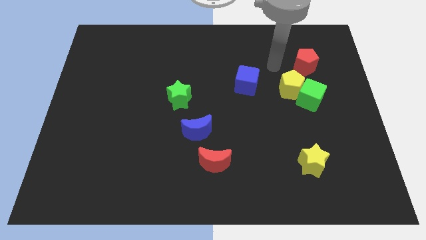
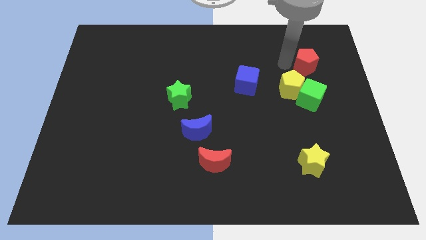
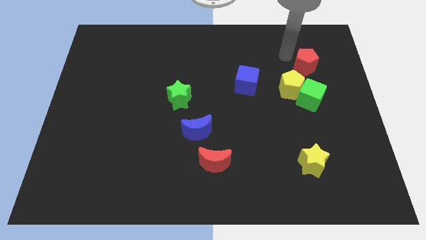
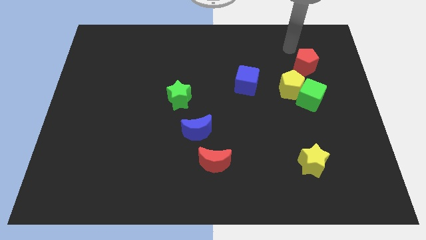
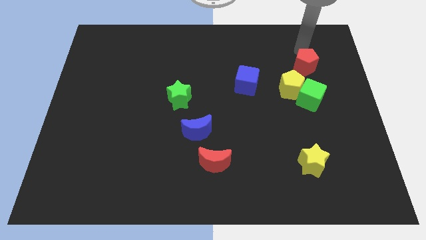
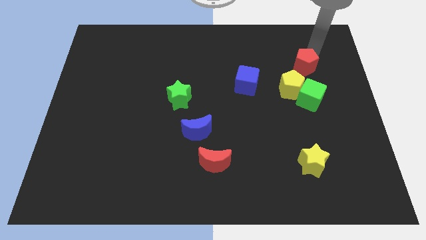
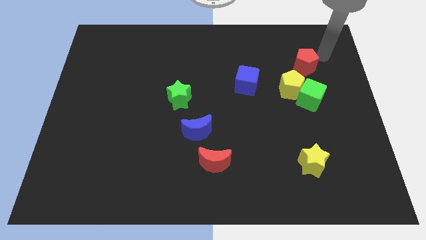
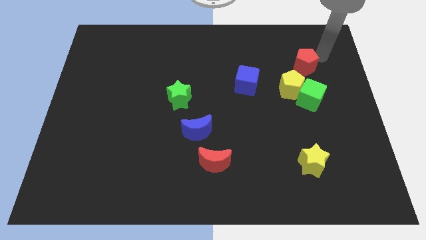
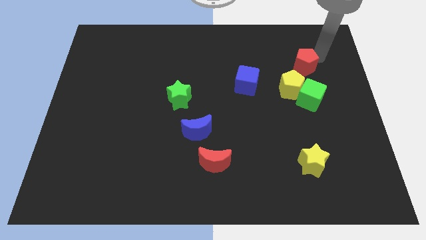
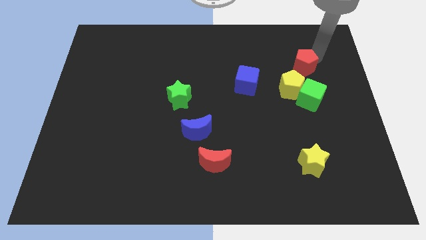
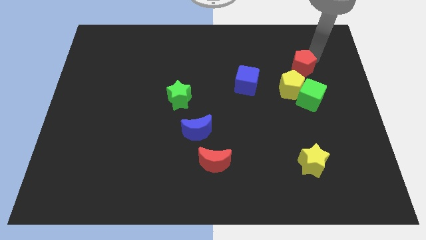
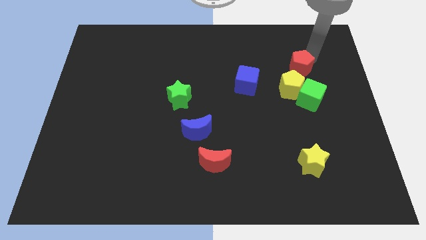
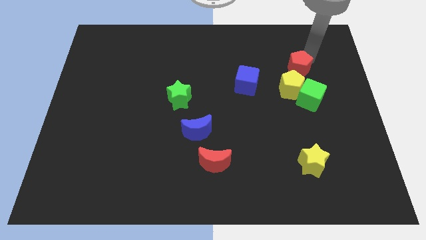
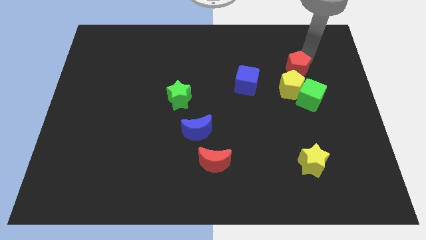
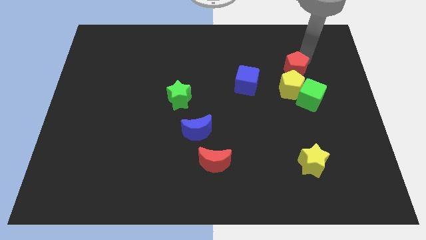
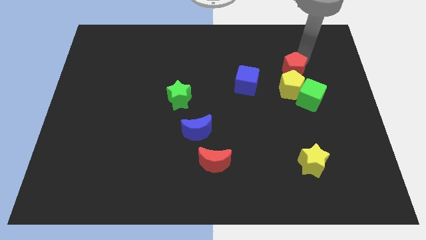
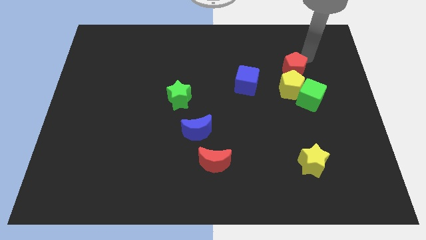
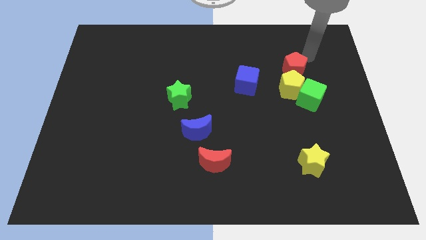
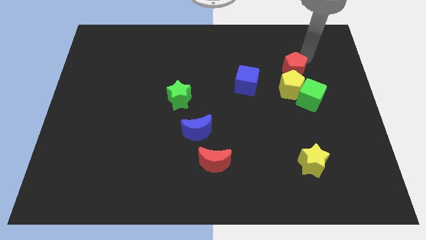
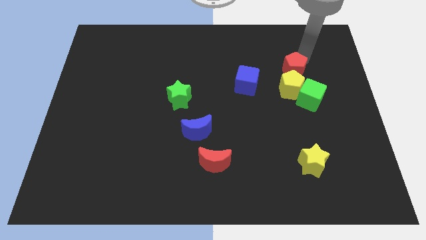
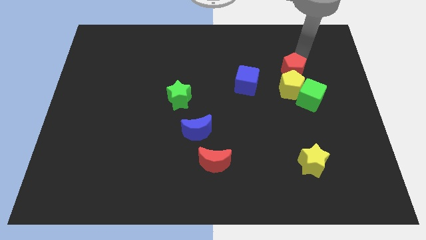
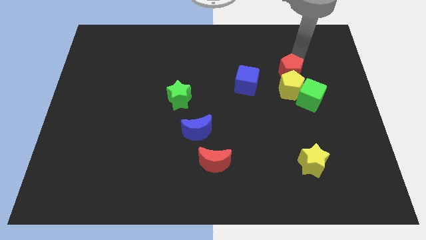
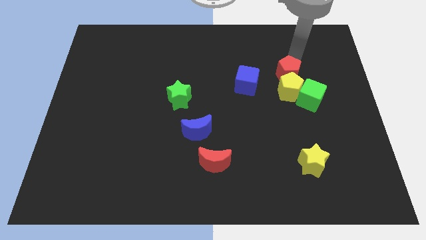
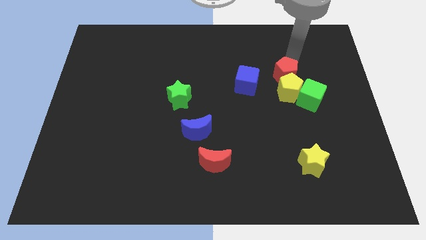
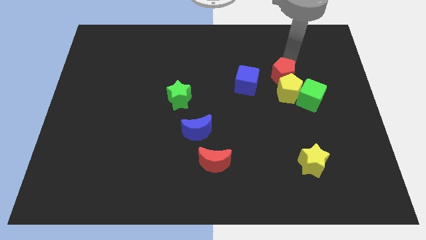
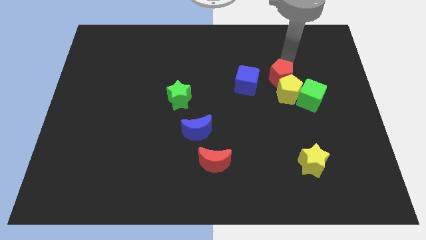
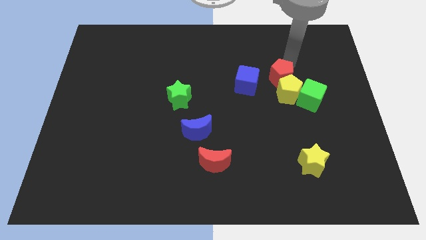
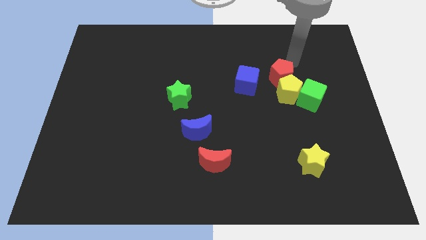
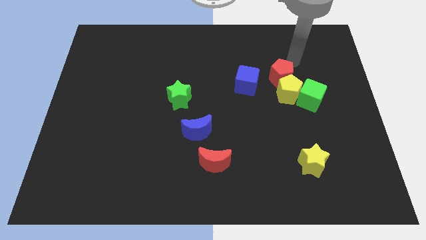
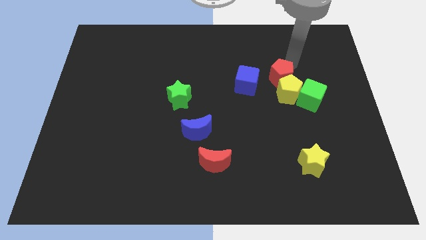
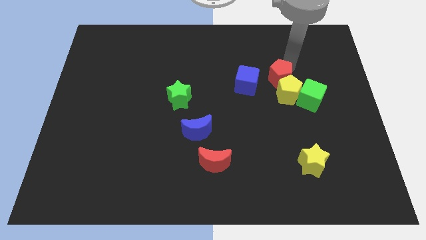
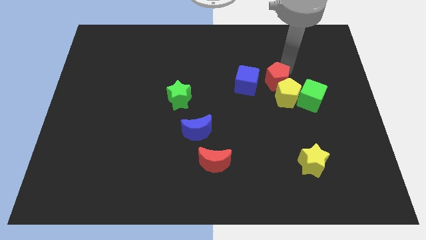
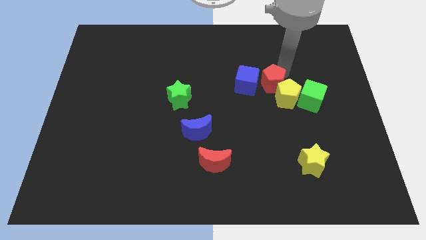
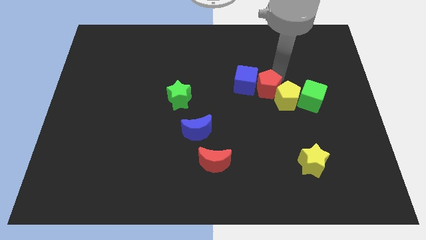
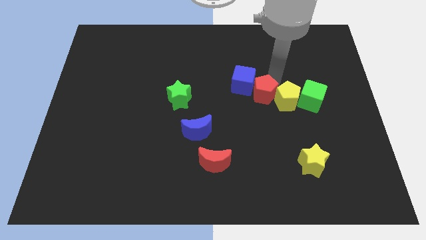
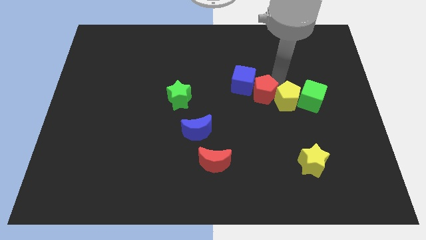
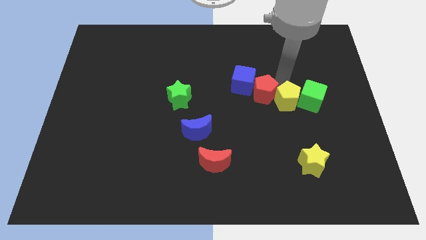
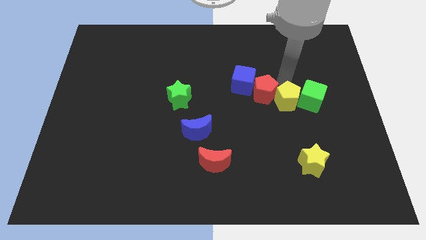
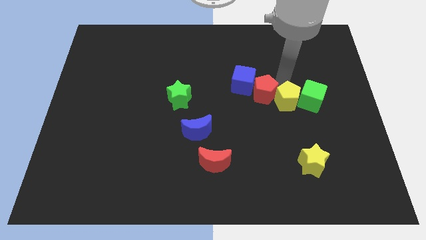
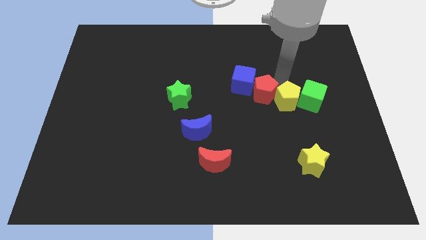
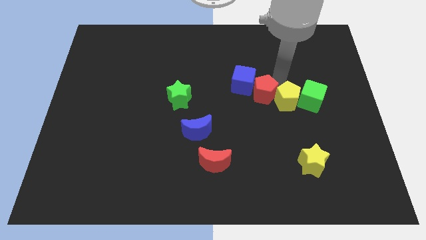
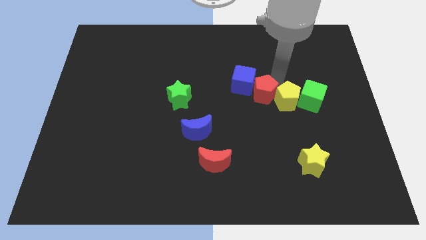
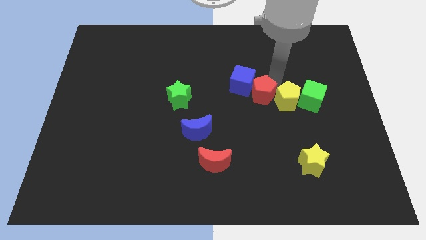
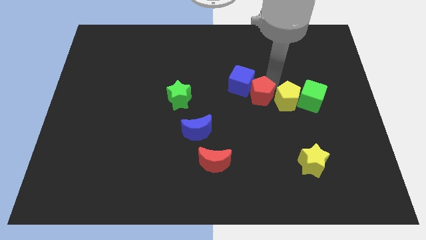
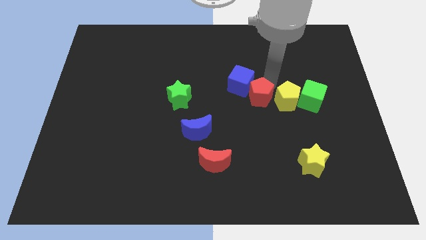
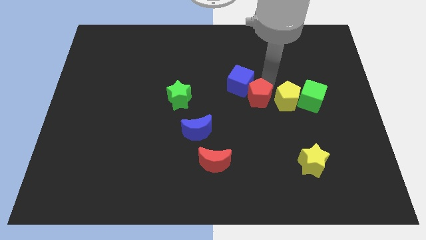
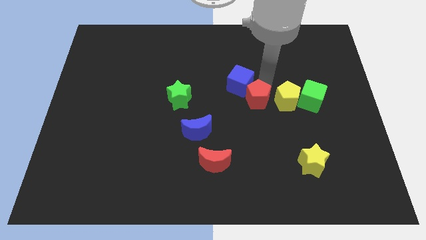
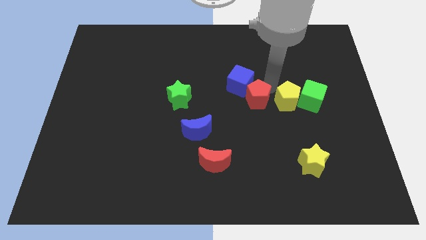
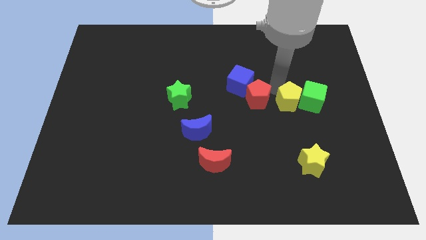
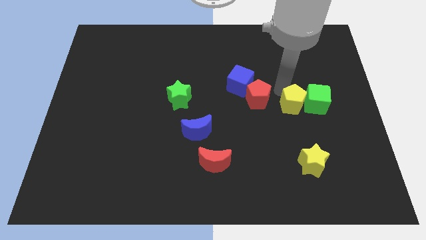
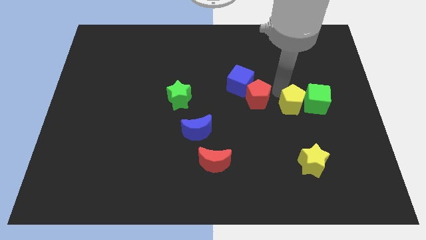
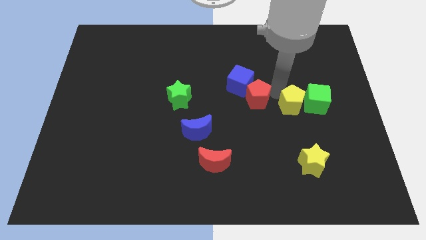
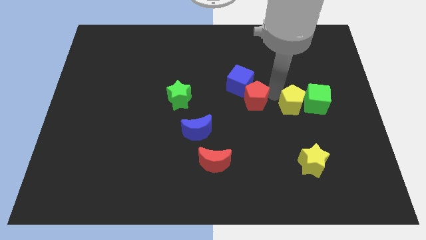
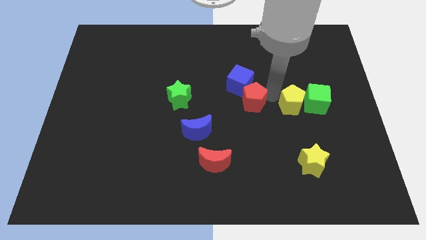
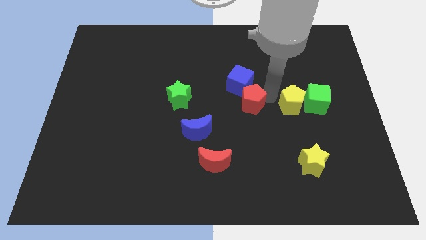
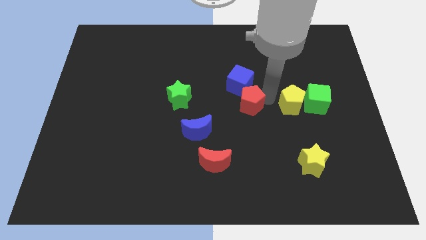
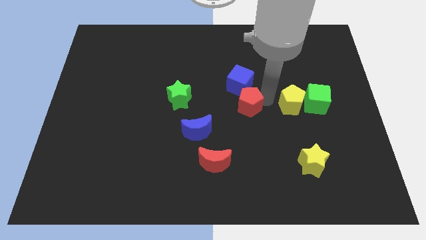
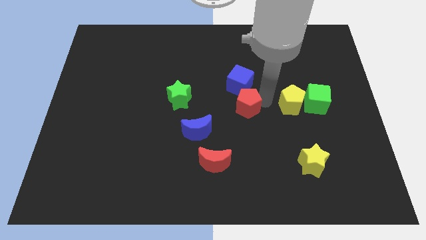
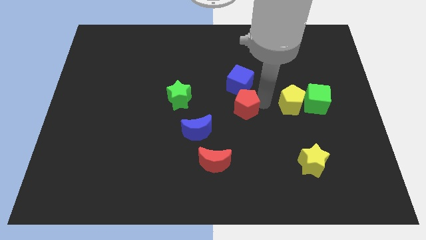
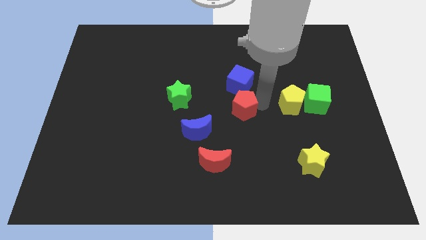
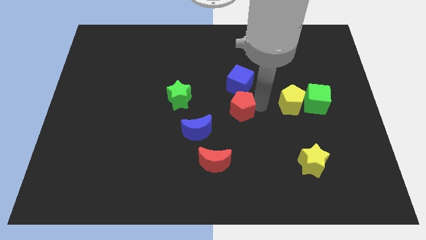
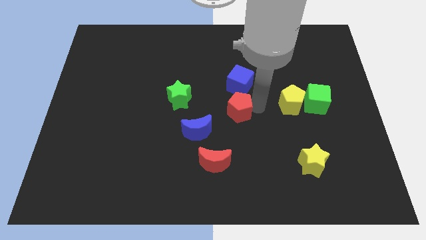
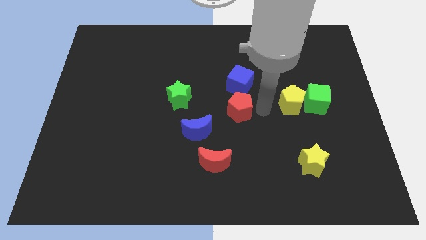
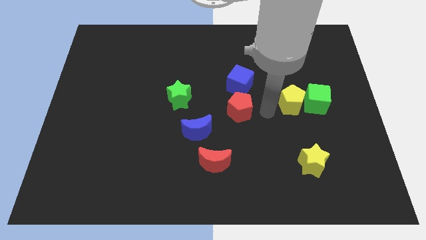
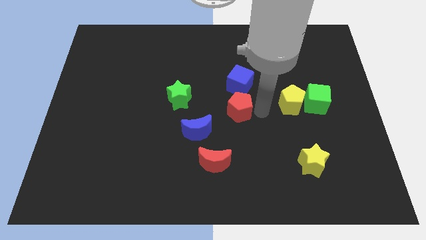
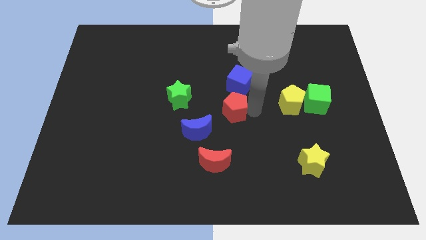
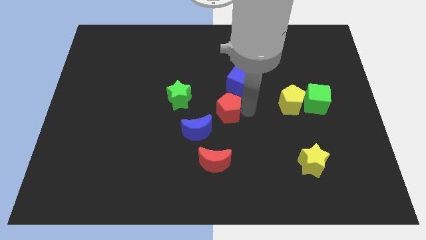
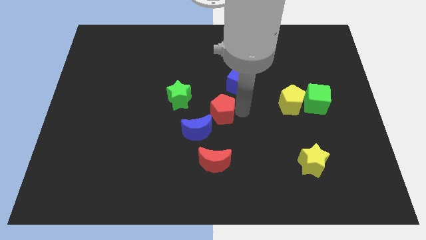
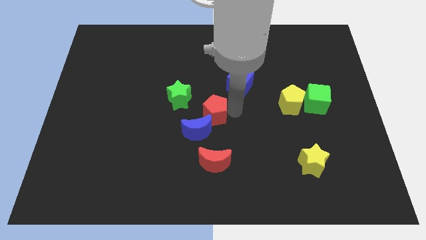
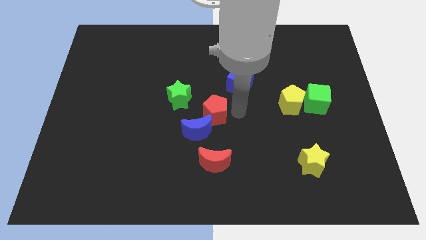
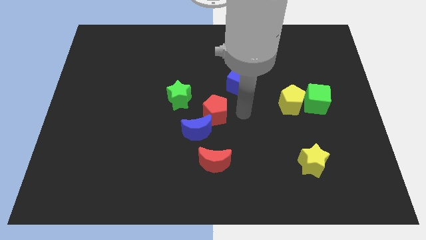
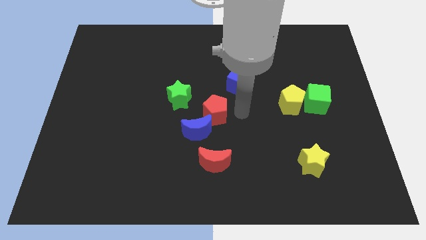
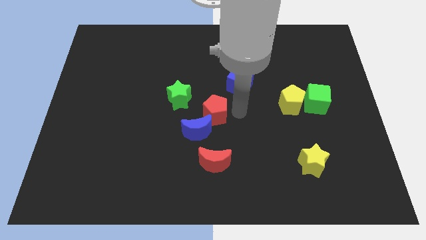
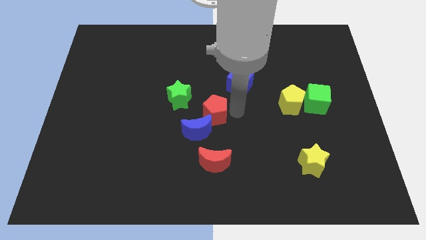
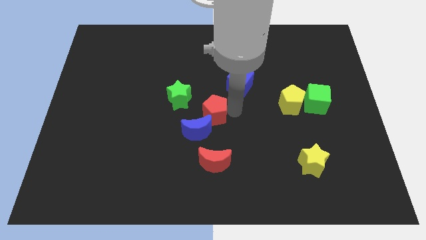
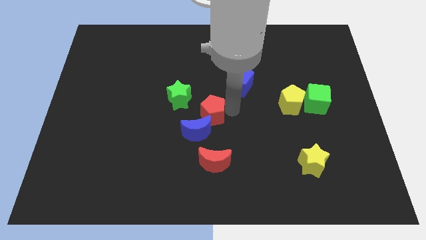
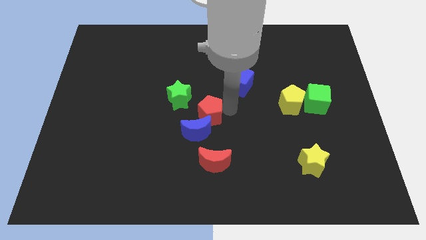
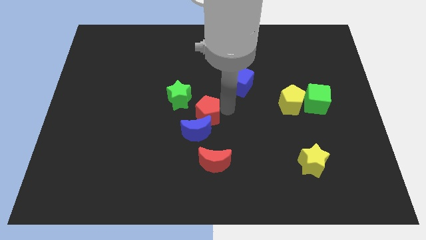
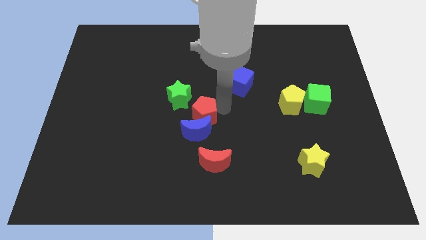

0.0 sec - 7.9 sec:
move the red pentagon diagonally up and to the left of the blue moon
